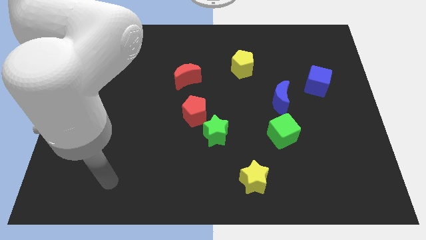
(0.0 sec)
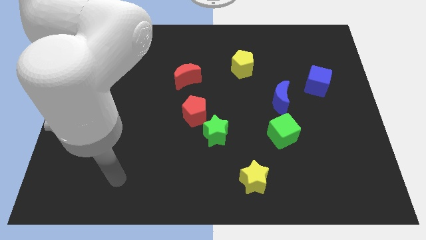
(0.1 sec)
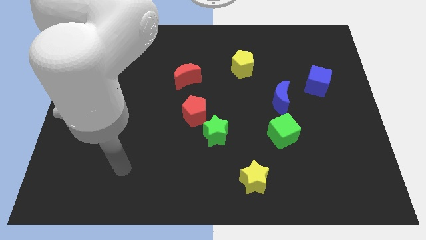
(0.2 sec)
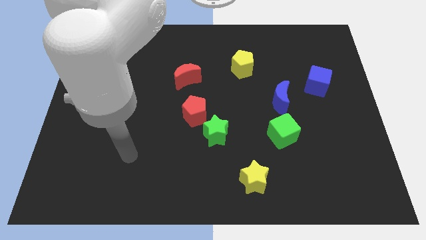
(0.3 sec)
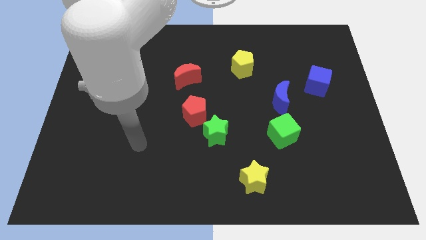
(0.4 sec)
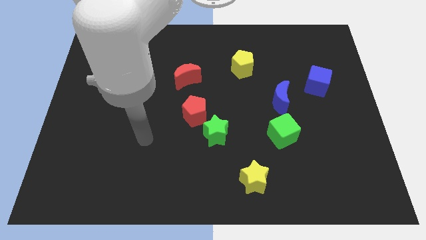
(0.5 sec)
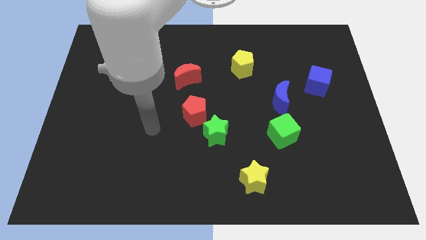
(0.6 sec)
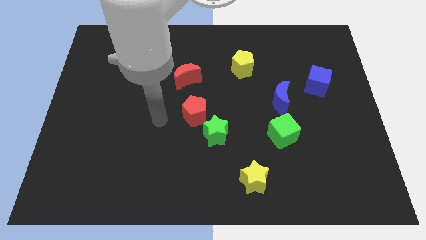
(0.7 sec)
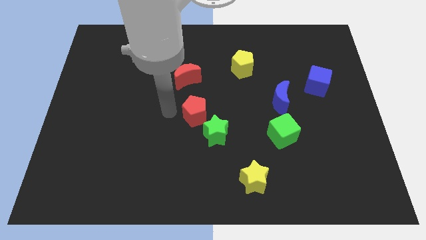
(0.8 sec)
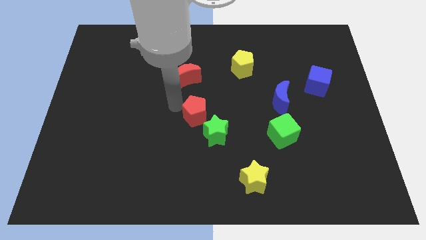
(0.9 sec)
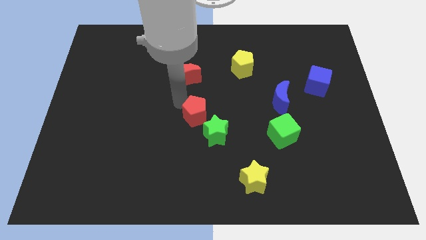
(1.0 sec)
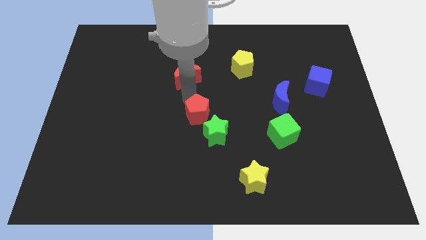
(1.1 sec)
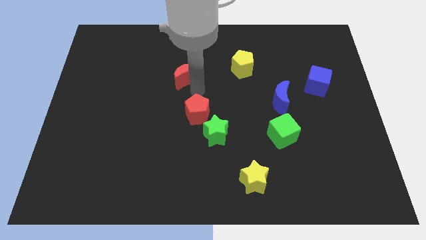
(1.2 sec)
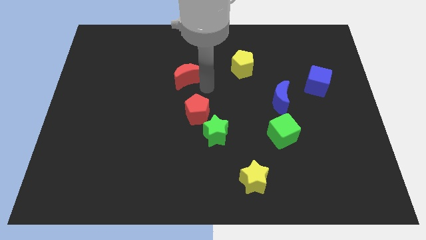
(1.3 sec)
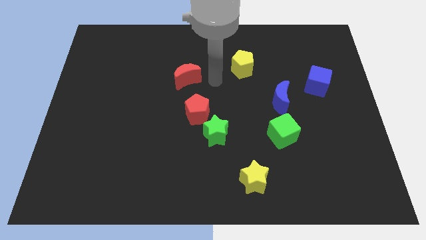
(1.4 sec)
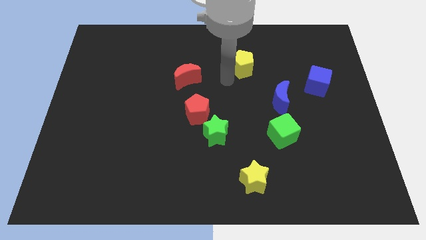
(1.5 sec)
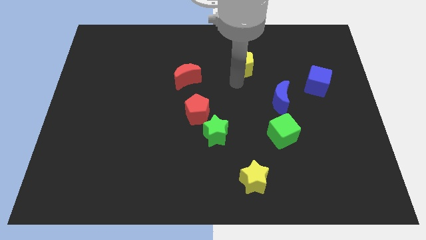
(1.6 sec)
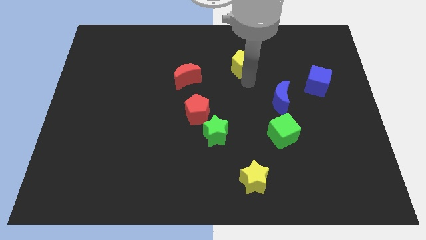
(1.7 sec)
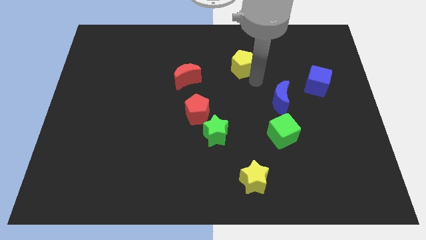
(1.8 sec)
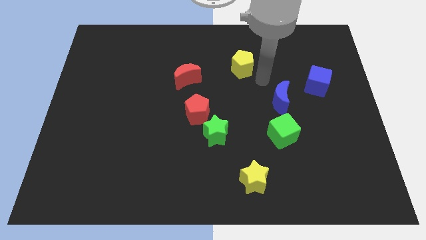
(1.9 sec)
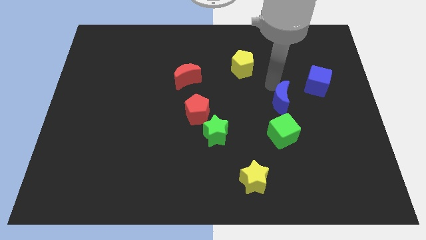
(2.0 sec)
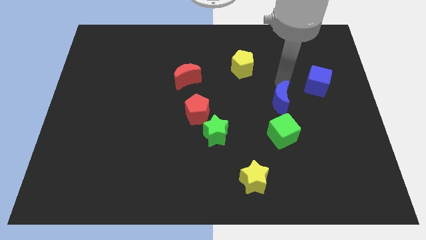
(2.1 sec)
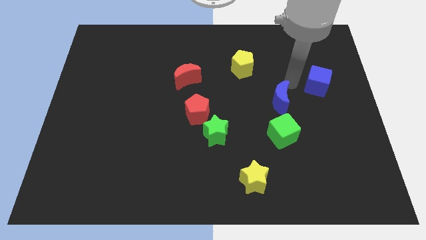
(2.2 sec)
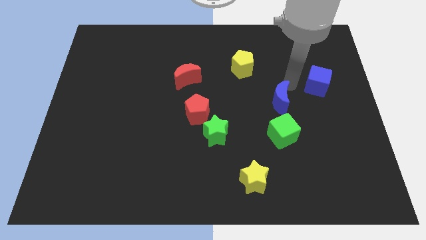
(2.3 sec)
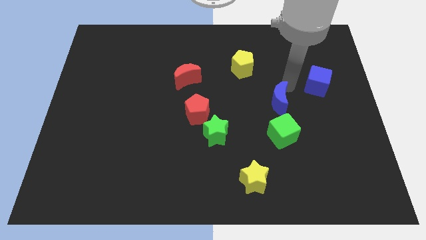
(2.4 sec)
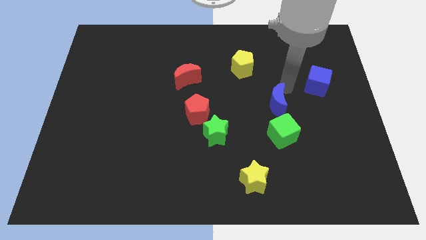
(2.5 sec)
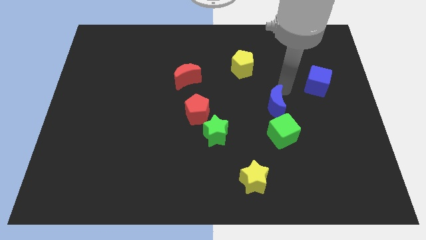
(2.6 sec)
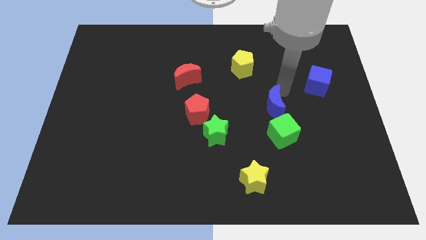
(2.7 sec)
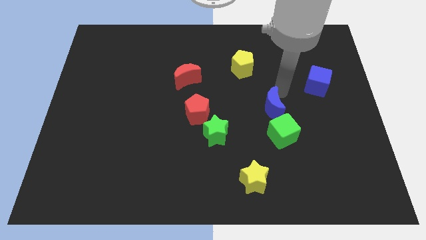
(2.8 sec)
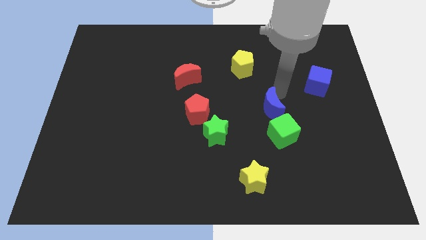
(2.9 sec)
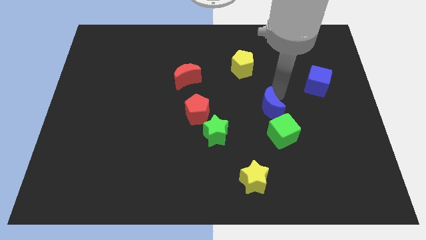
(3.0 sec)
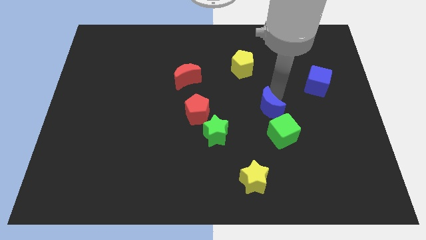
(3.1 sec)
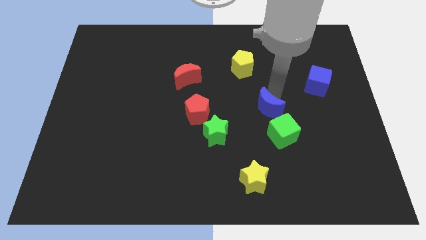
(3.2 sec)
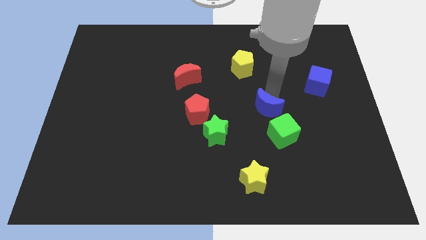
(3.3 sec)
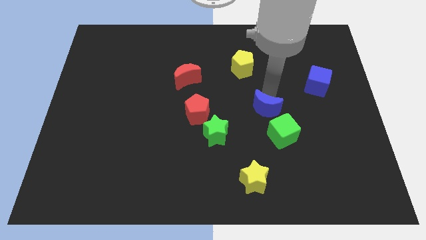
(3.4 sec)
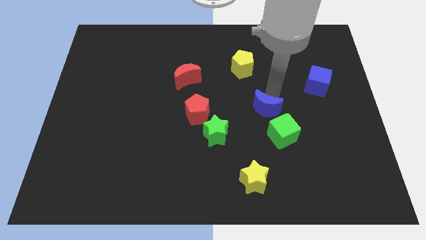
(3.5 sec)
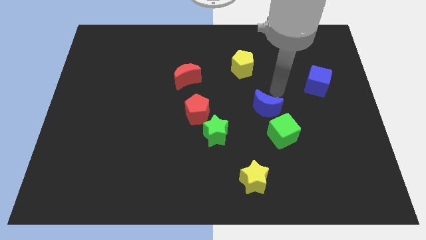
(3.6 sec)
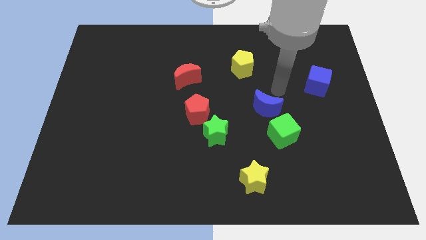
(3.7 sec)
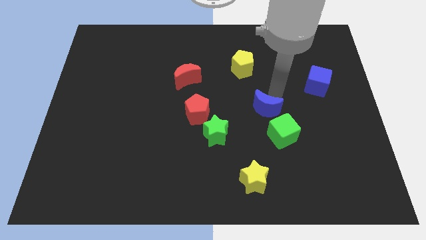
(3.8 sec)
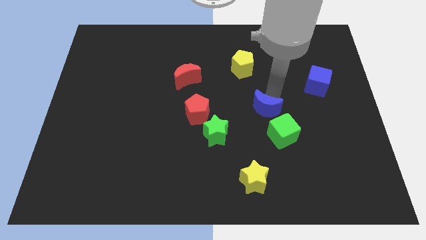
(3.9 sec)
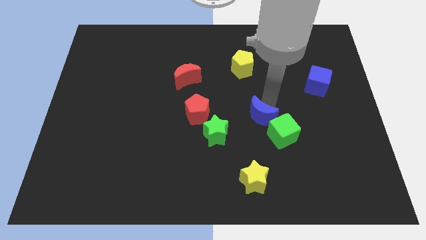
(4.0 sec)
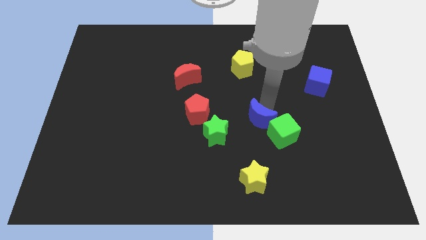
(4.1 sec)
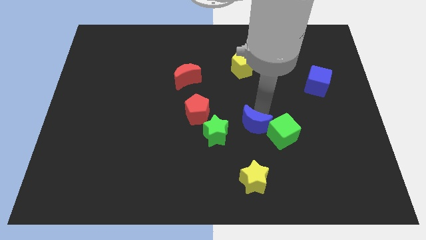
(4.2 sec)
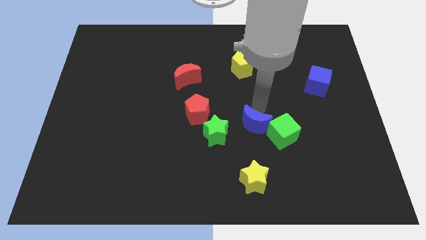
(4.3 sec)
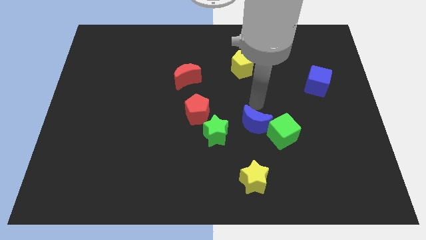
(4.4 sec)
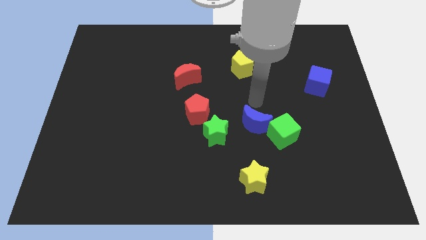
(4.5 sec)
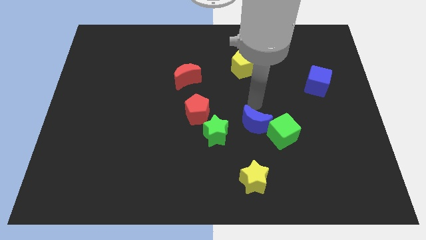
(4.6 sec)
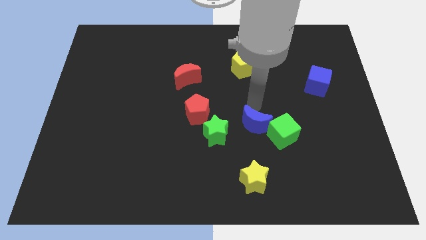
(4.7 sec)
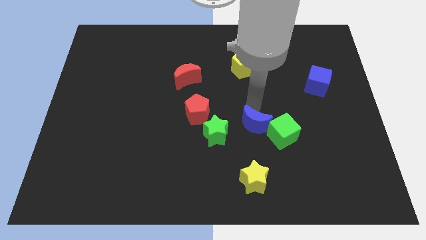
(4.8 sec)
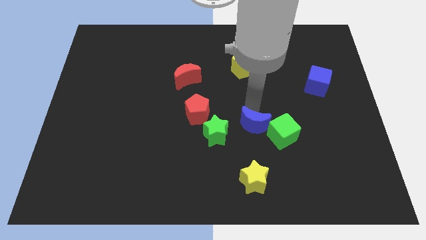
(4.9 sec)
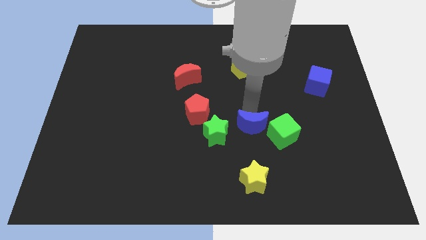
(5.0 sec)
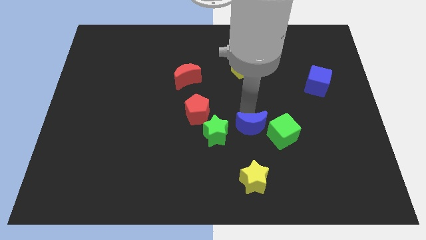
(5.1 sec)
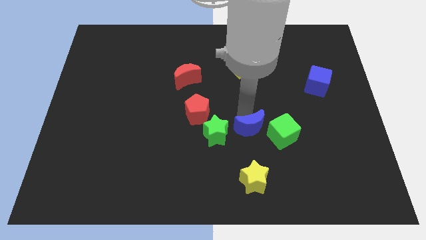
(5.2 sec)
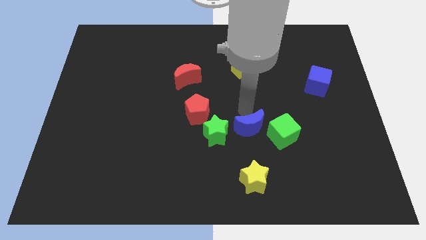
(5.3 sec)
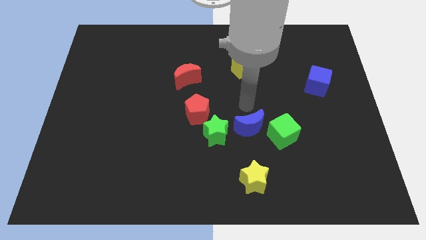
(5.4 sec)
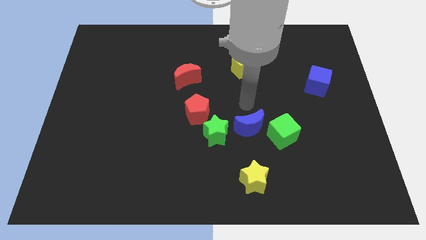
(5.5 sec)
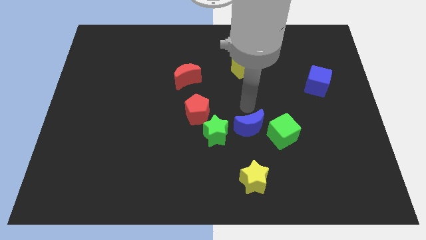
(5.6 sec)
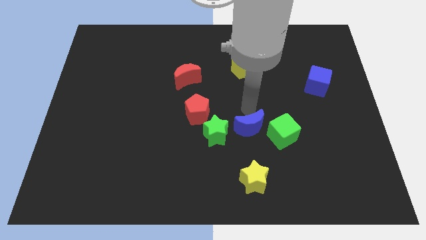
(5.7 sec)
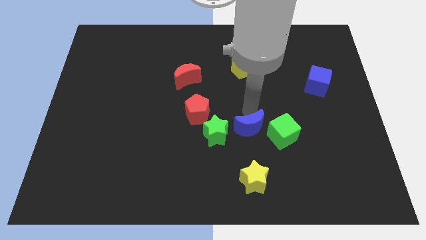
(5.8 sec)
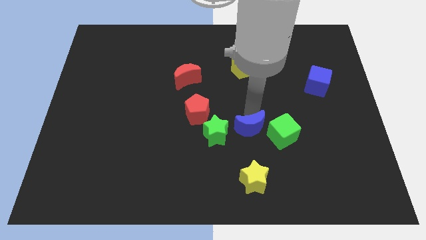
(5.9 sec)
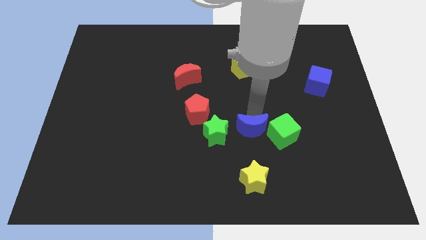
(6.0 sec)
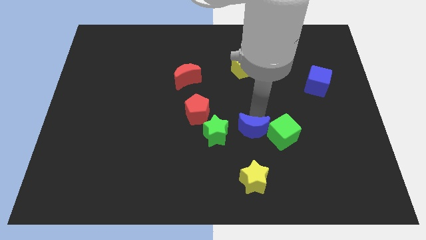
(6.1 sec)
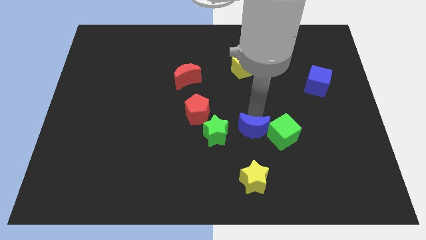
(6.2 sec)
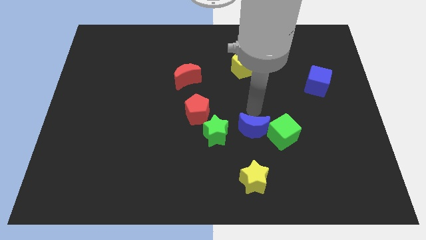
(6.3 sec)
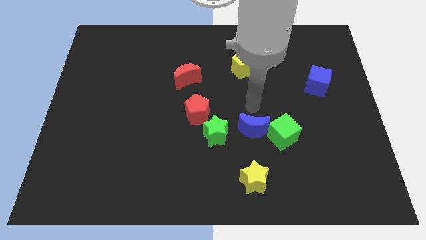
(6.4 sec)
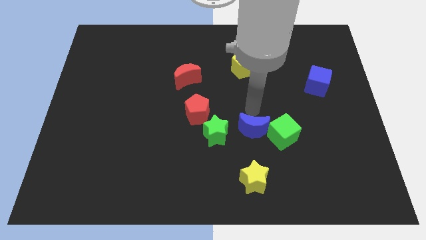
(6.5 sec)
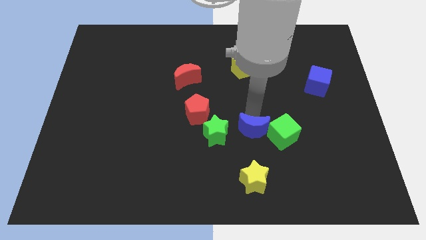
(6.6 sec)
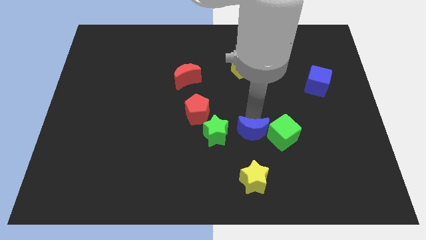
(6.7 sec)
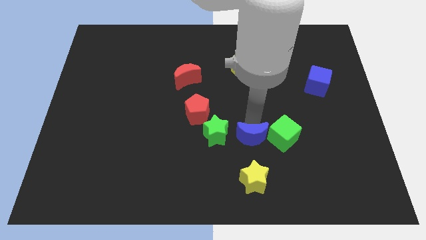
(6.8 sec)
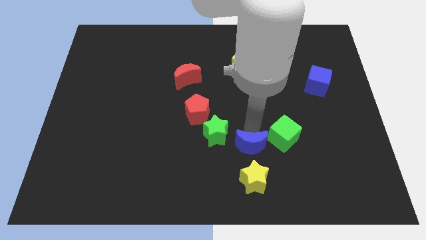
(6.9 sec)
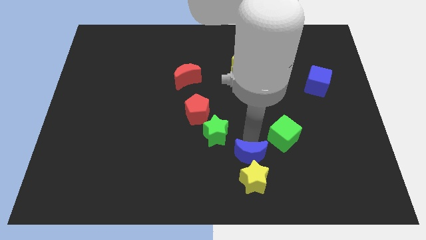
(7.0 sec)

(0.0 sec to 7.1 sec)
push the blue moon close to the yellow star
